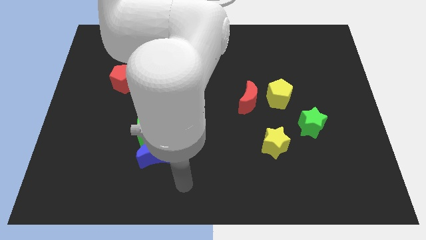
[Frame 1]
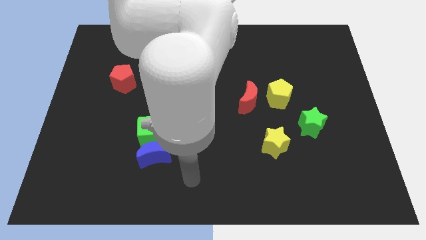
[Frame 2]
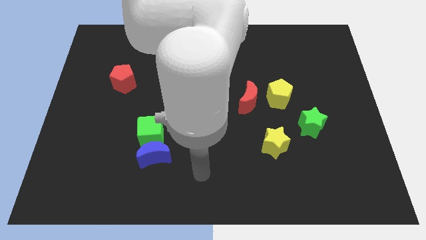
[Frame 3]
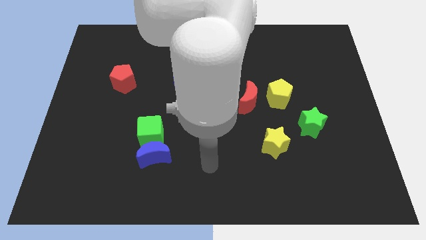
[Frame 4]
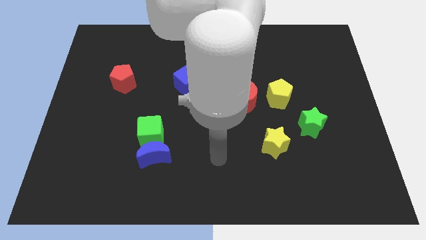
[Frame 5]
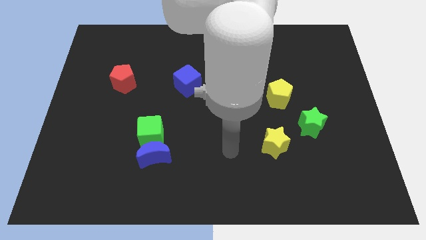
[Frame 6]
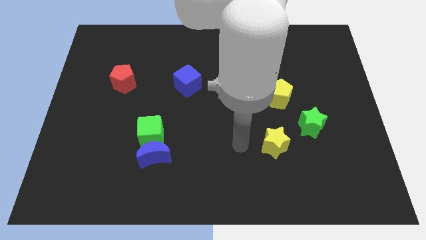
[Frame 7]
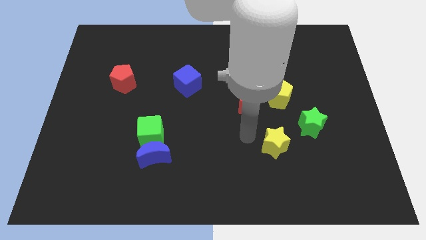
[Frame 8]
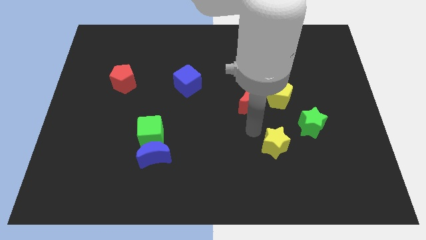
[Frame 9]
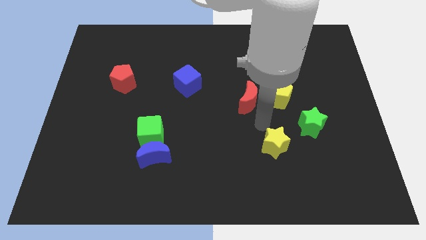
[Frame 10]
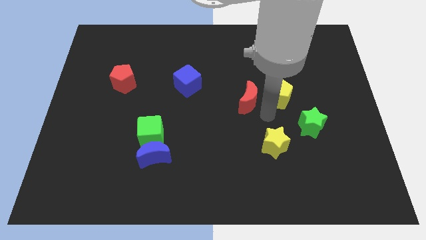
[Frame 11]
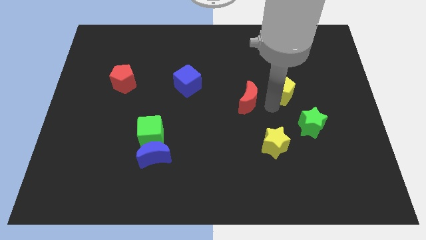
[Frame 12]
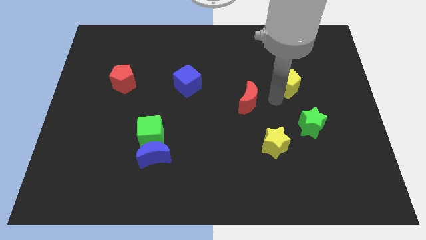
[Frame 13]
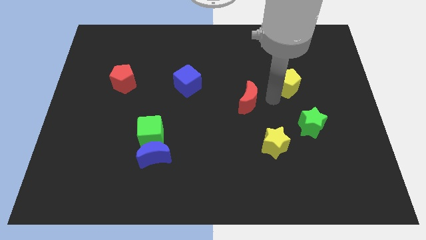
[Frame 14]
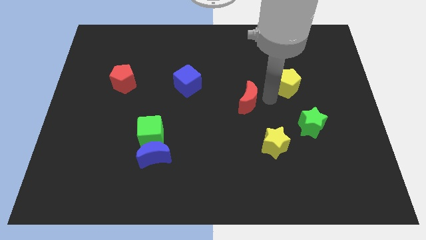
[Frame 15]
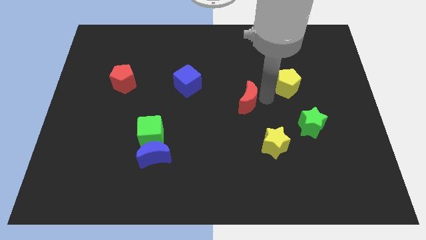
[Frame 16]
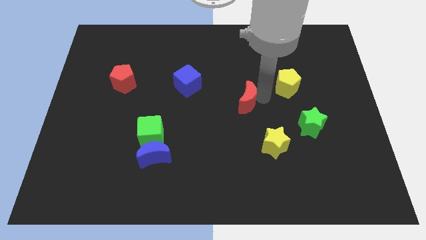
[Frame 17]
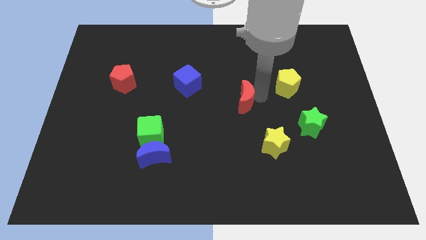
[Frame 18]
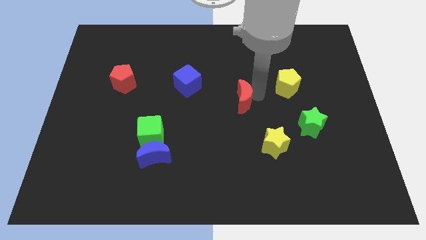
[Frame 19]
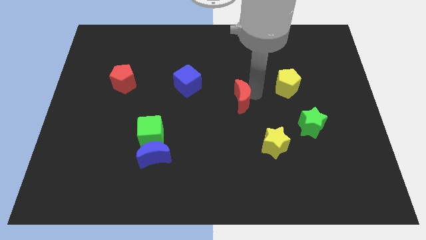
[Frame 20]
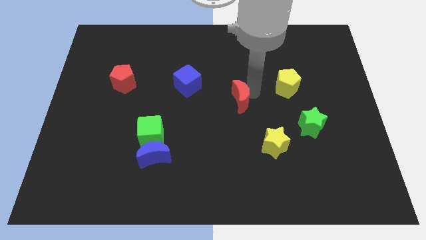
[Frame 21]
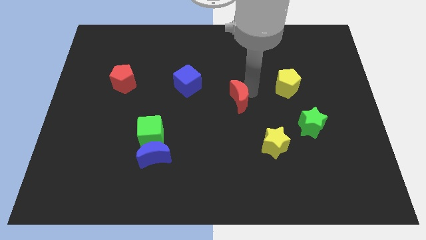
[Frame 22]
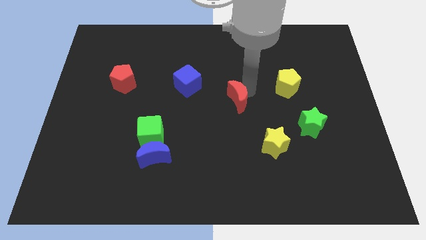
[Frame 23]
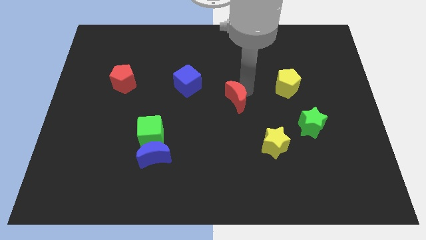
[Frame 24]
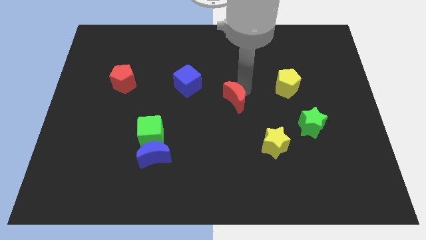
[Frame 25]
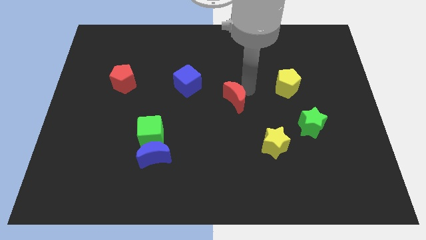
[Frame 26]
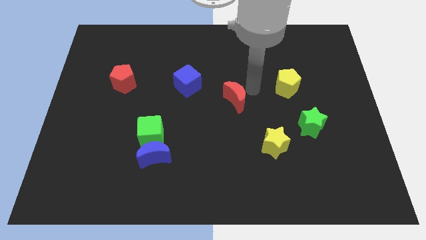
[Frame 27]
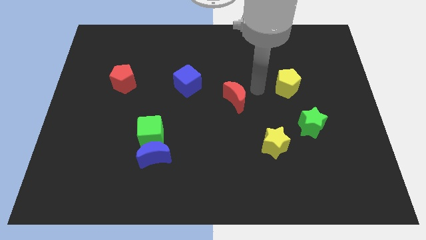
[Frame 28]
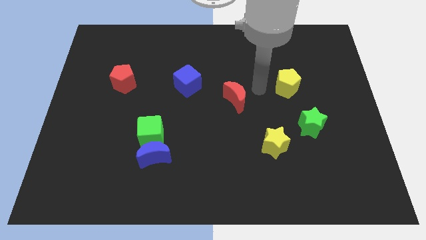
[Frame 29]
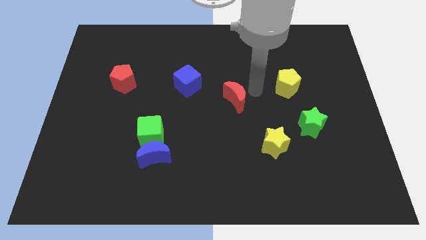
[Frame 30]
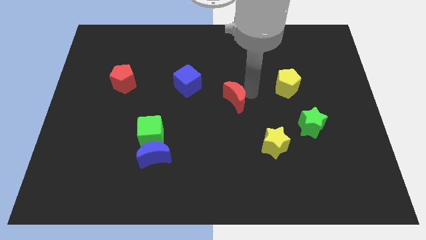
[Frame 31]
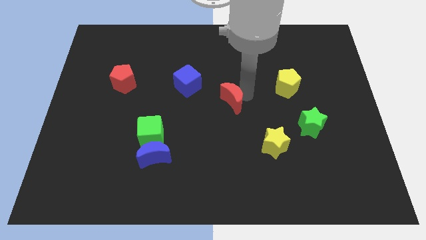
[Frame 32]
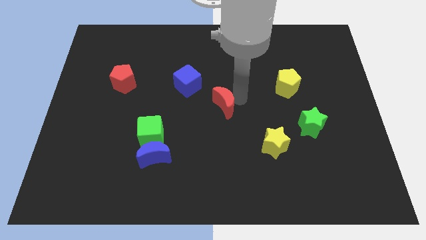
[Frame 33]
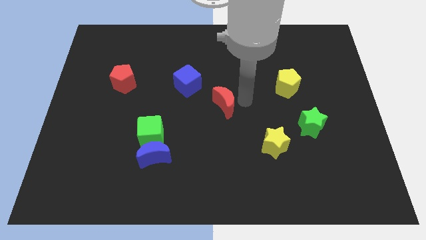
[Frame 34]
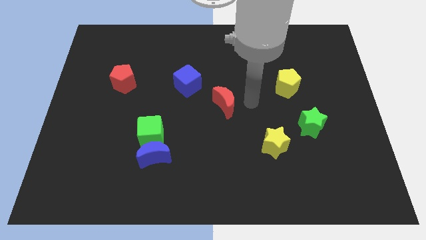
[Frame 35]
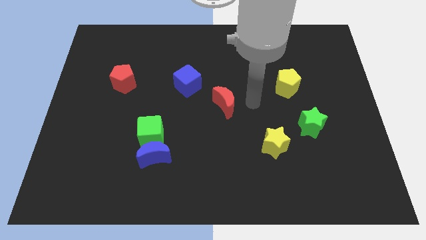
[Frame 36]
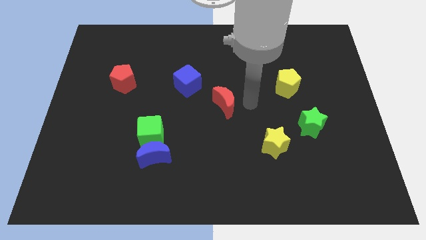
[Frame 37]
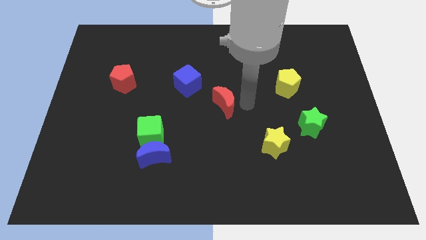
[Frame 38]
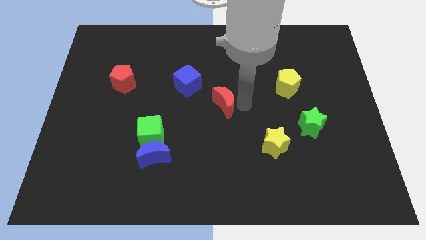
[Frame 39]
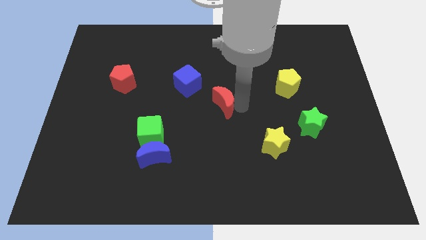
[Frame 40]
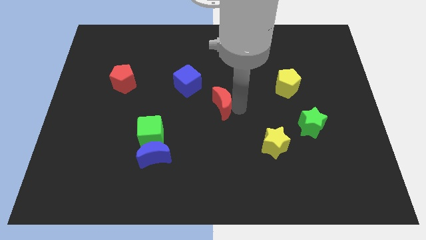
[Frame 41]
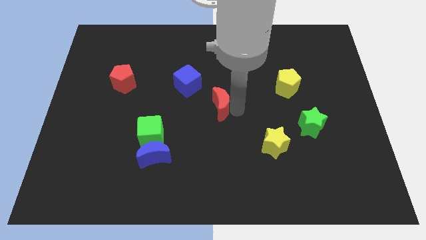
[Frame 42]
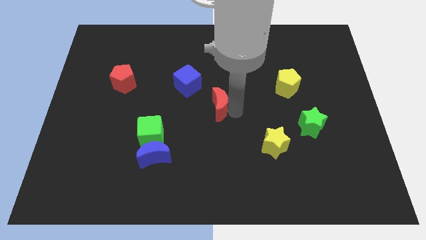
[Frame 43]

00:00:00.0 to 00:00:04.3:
slightly slide the red moon to the left

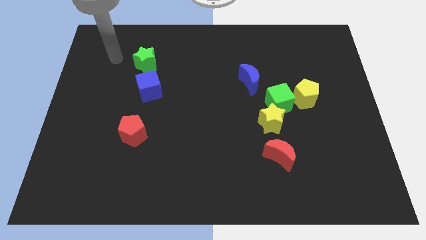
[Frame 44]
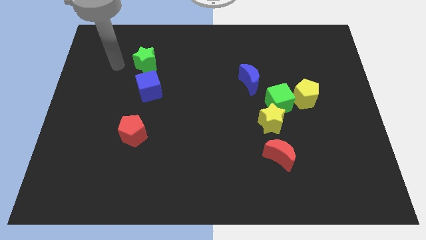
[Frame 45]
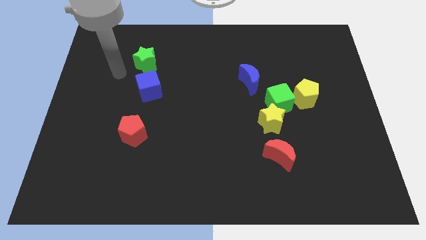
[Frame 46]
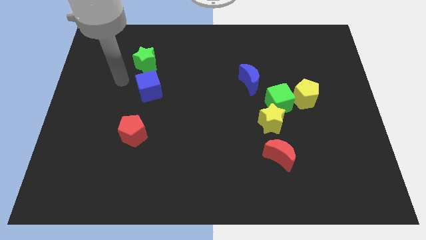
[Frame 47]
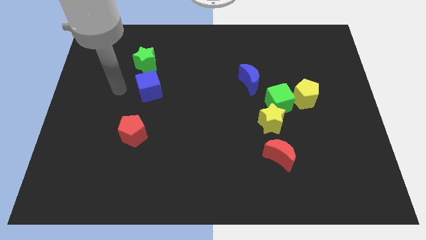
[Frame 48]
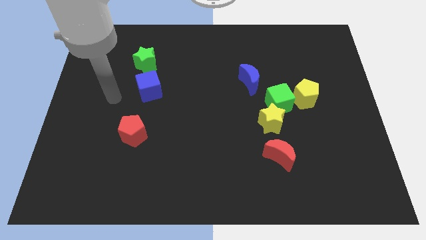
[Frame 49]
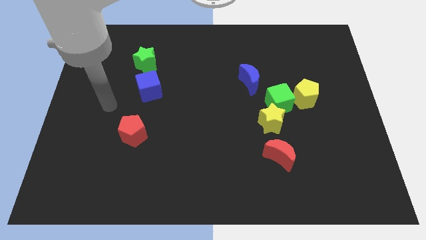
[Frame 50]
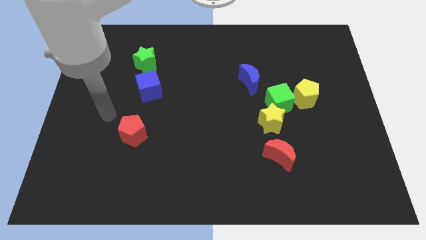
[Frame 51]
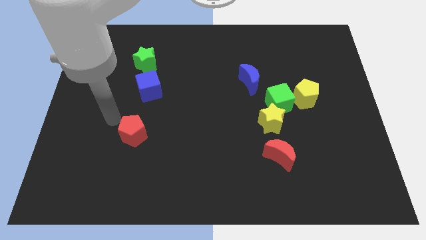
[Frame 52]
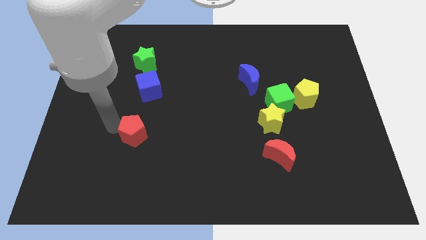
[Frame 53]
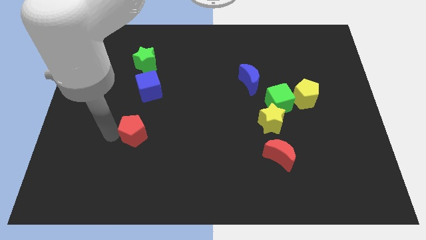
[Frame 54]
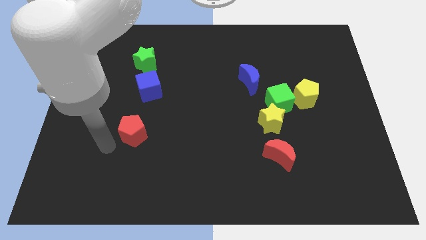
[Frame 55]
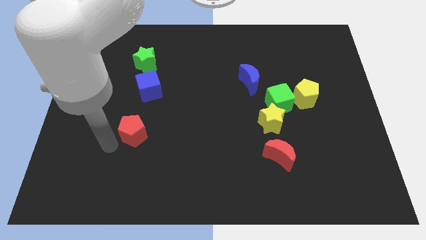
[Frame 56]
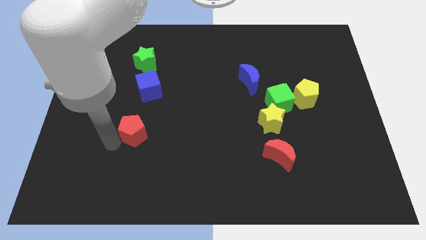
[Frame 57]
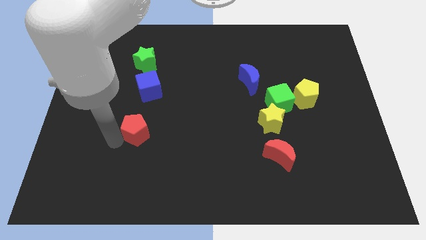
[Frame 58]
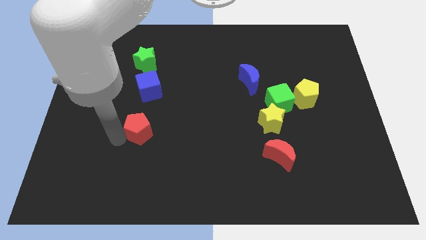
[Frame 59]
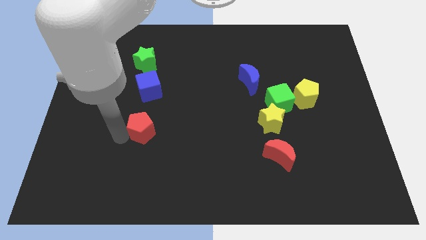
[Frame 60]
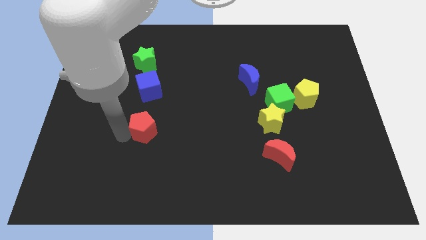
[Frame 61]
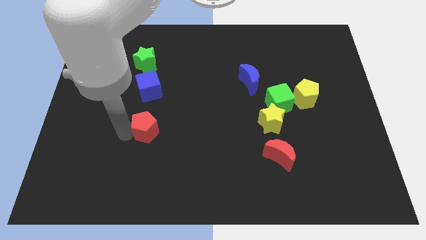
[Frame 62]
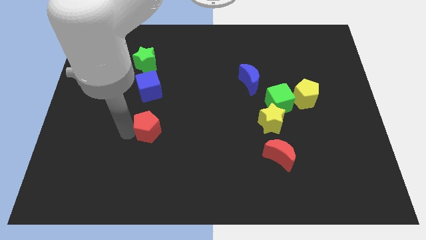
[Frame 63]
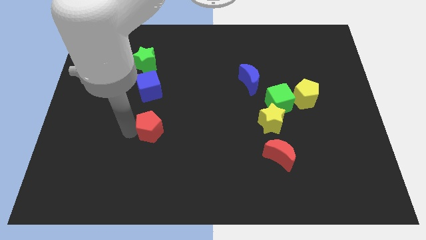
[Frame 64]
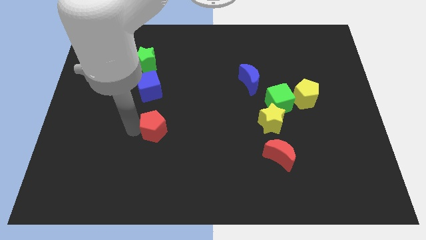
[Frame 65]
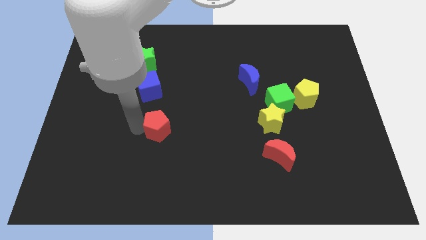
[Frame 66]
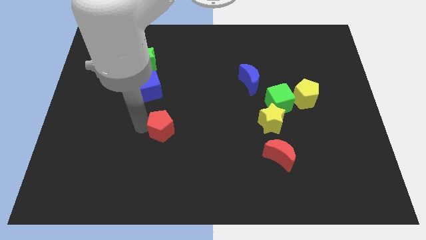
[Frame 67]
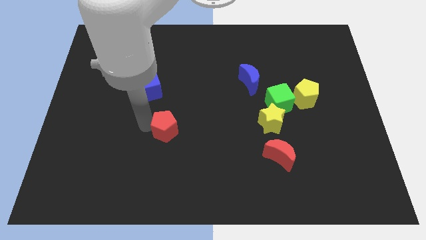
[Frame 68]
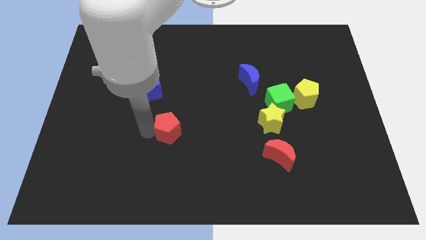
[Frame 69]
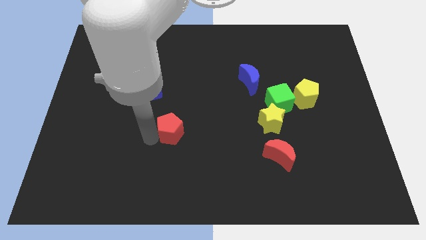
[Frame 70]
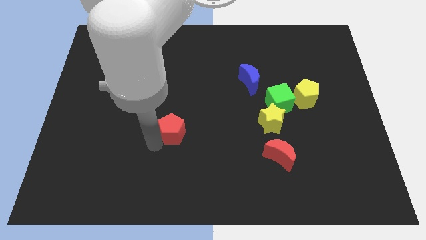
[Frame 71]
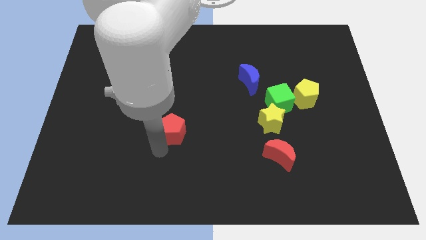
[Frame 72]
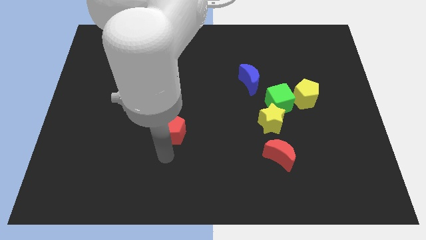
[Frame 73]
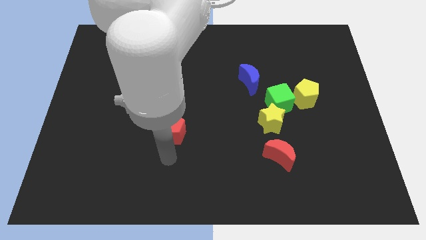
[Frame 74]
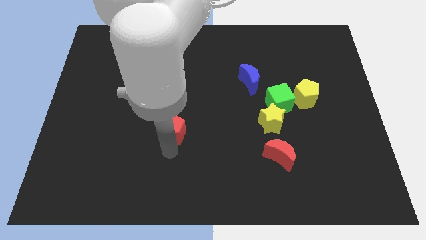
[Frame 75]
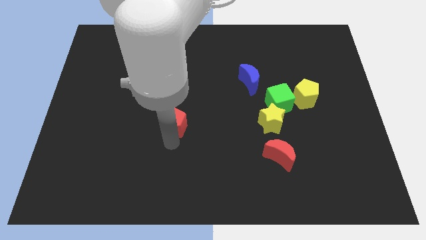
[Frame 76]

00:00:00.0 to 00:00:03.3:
move the red pentagon up and then to the right a bit
